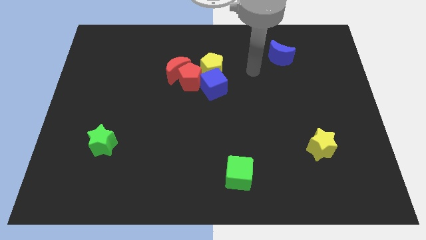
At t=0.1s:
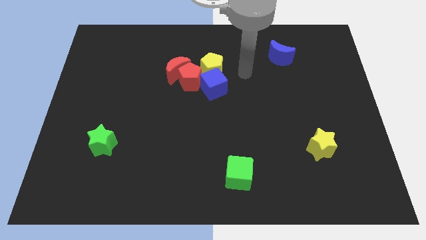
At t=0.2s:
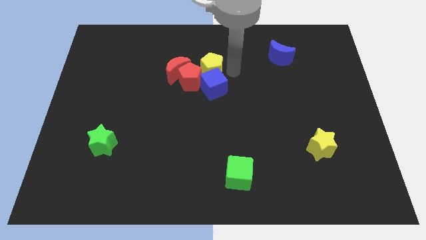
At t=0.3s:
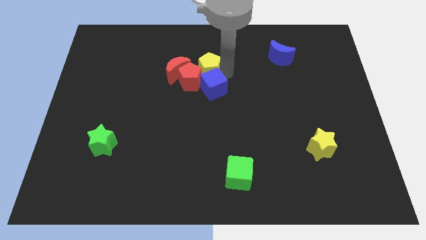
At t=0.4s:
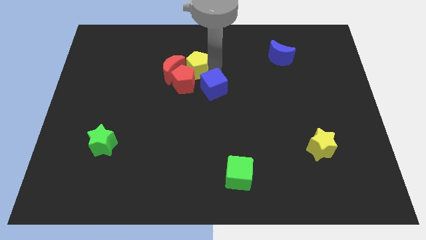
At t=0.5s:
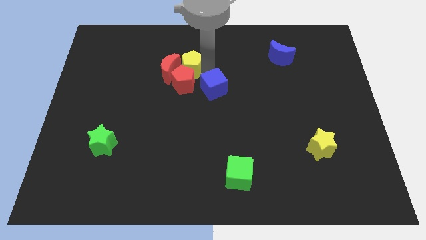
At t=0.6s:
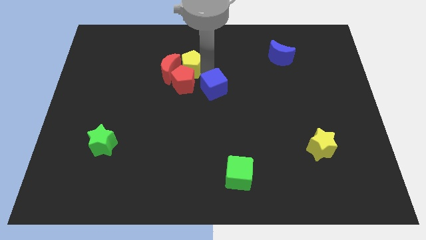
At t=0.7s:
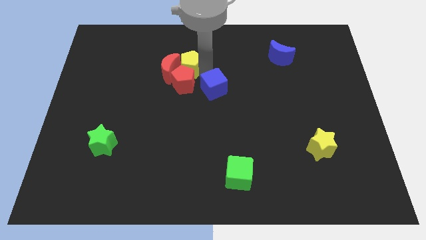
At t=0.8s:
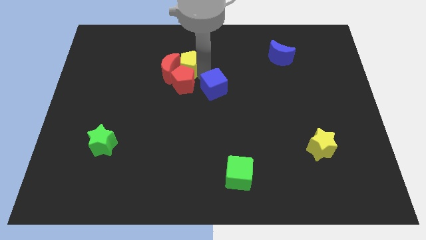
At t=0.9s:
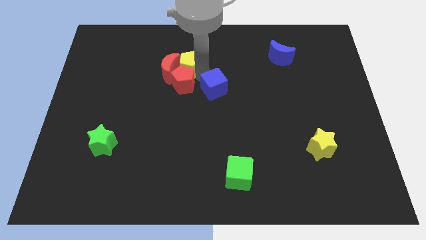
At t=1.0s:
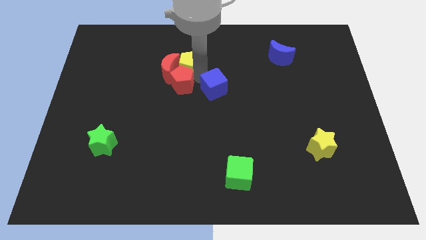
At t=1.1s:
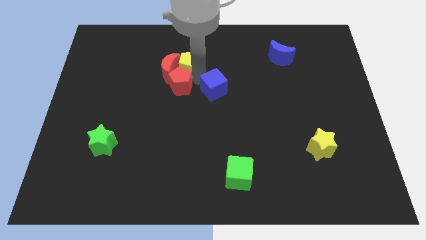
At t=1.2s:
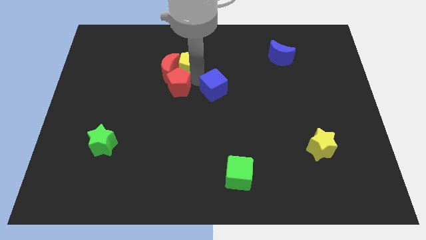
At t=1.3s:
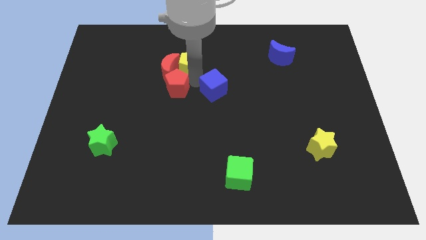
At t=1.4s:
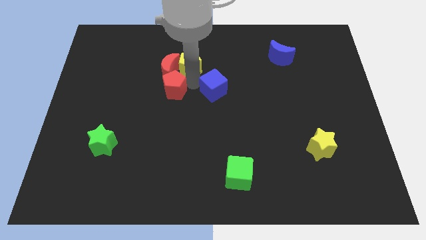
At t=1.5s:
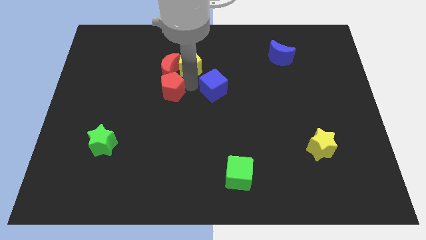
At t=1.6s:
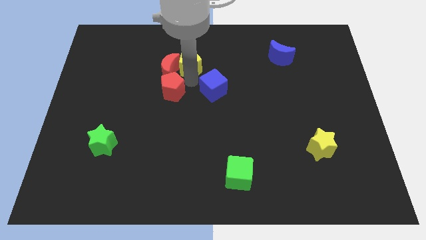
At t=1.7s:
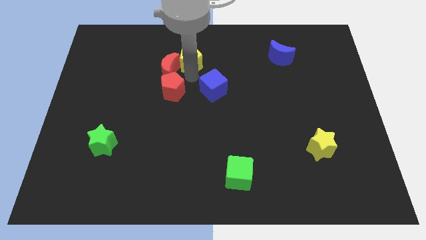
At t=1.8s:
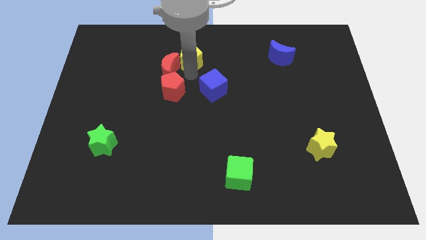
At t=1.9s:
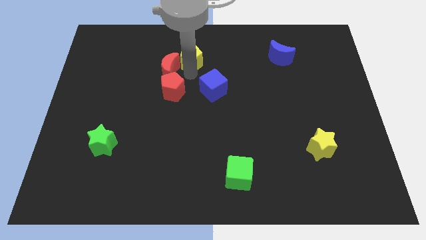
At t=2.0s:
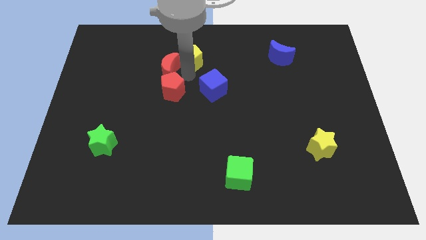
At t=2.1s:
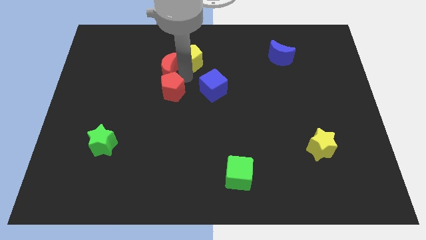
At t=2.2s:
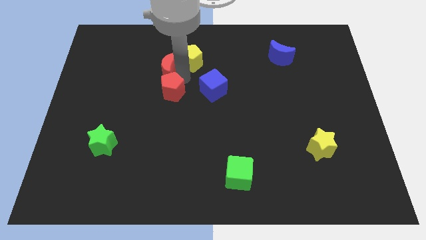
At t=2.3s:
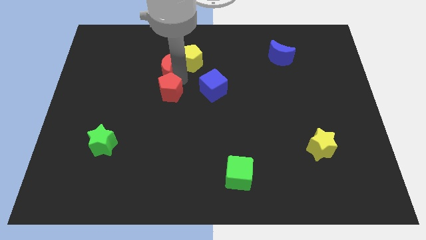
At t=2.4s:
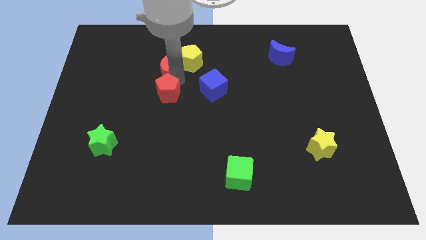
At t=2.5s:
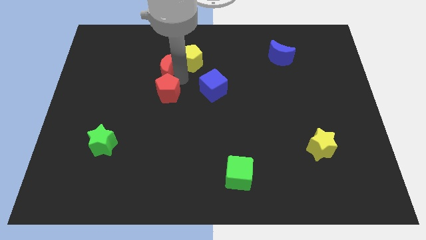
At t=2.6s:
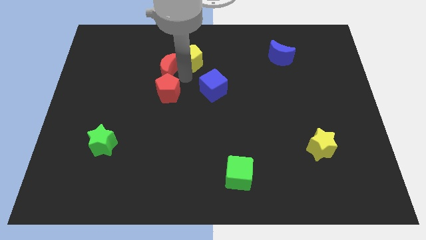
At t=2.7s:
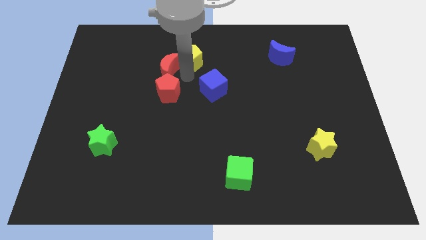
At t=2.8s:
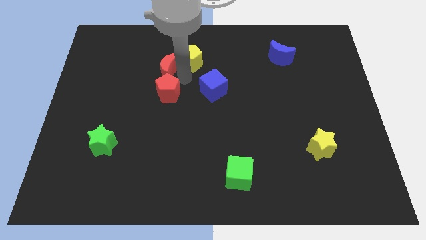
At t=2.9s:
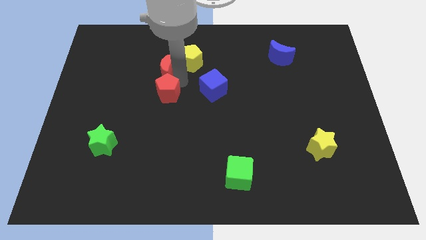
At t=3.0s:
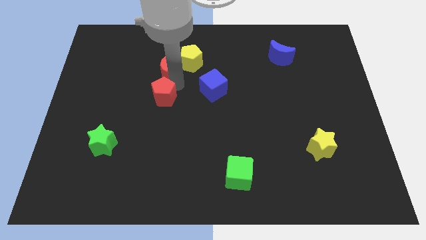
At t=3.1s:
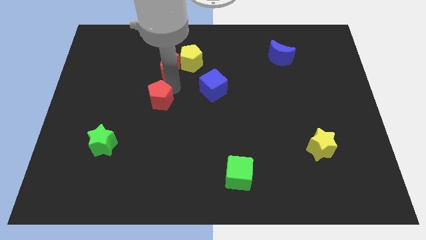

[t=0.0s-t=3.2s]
separate the red pentagon from the red moon, blue cube, and yellow pentagon

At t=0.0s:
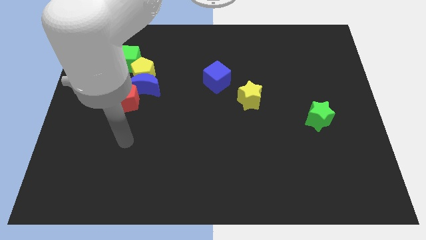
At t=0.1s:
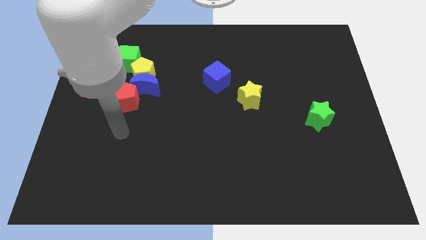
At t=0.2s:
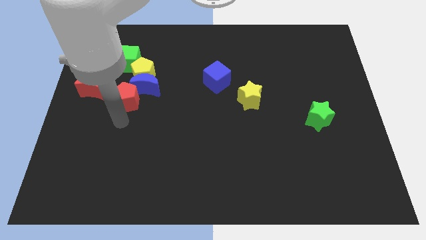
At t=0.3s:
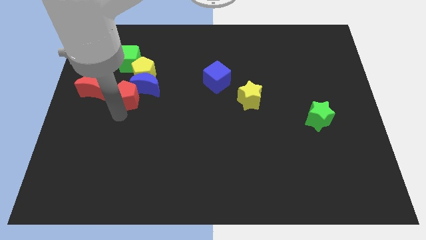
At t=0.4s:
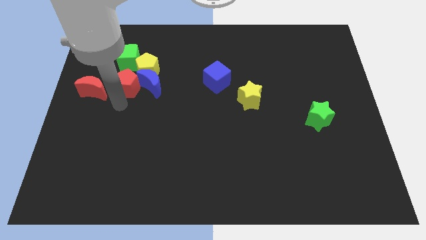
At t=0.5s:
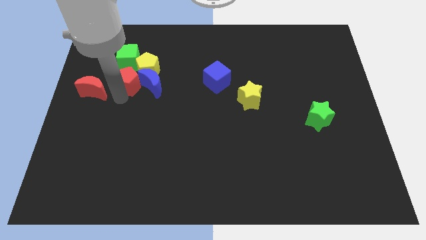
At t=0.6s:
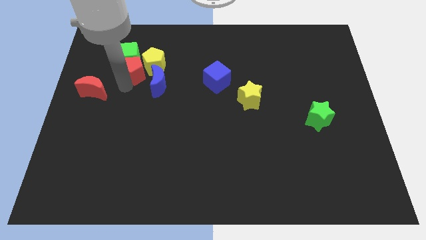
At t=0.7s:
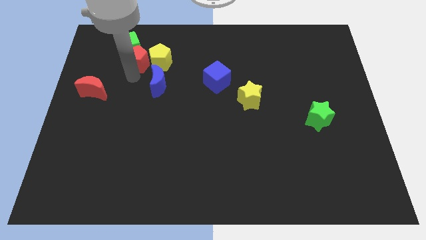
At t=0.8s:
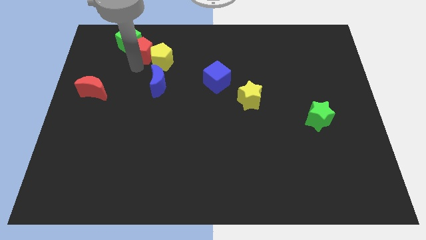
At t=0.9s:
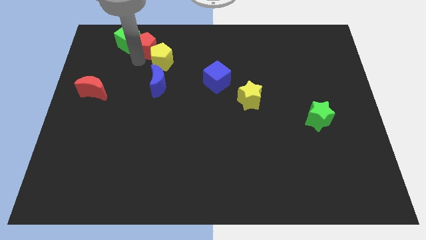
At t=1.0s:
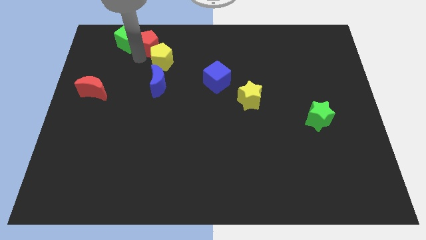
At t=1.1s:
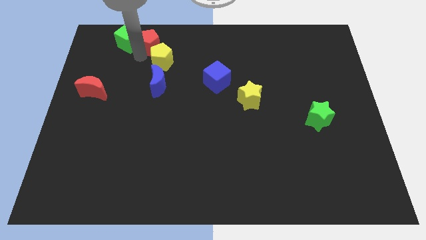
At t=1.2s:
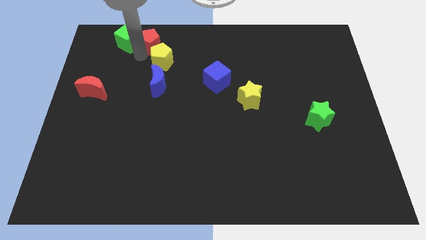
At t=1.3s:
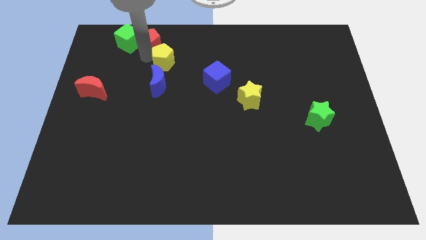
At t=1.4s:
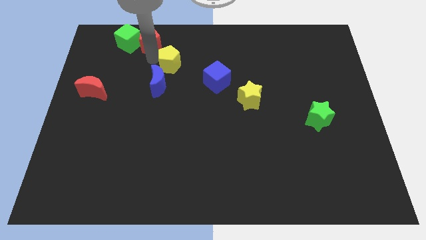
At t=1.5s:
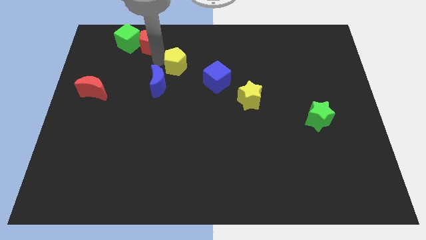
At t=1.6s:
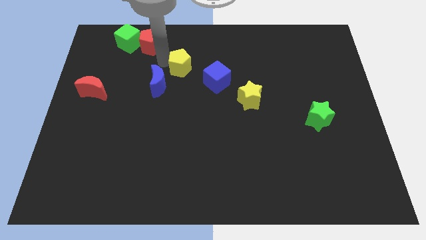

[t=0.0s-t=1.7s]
separate the yellow pentagon from the blue moon, green cube, and red pentagon

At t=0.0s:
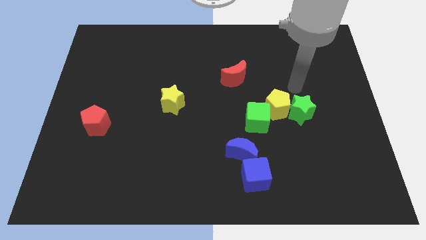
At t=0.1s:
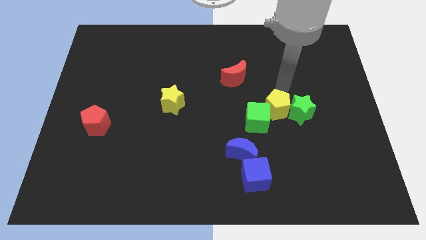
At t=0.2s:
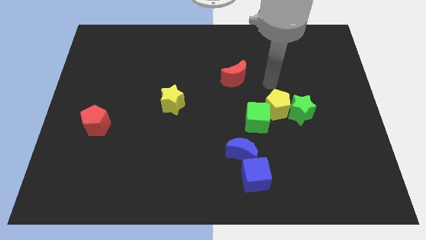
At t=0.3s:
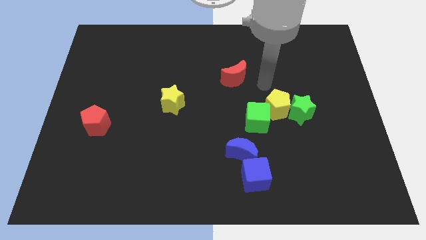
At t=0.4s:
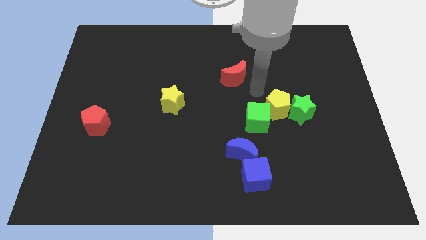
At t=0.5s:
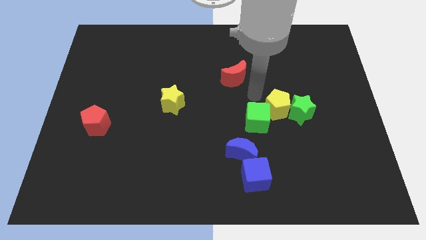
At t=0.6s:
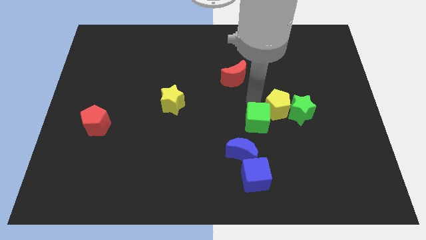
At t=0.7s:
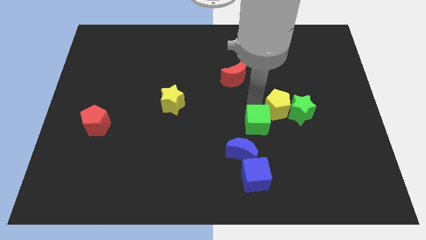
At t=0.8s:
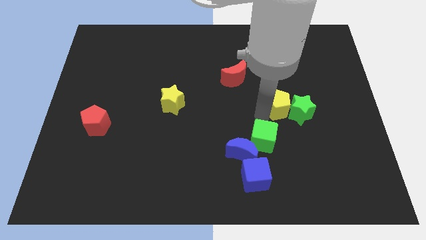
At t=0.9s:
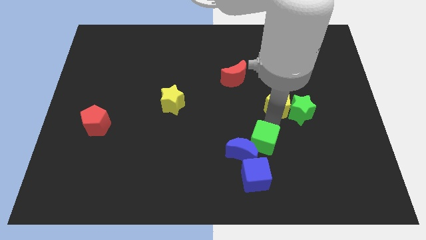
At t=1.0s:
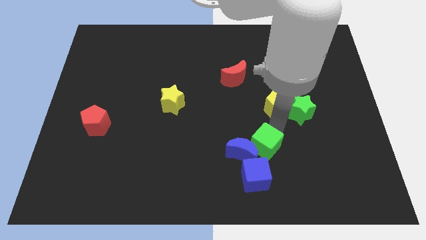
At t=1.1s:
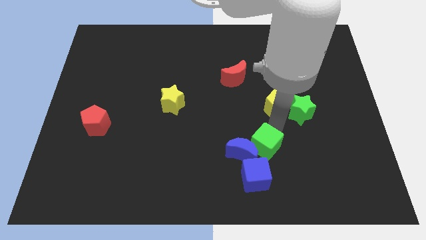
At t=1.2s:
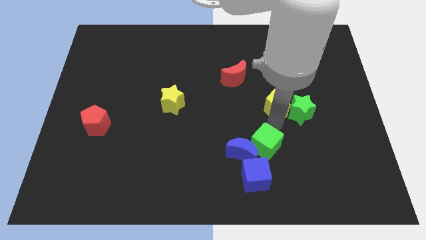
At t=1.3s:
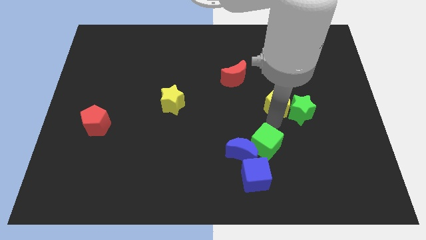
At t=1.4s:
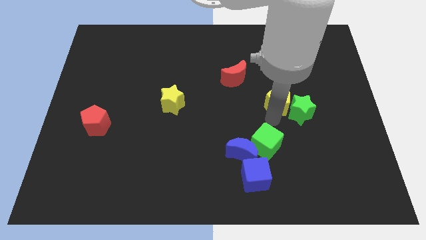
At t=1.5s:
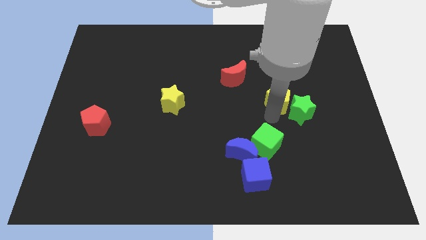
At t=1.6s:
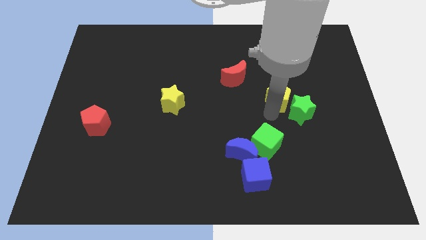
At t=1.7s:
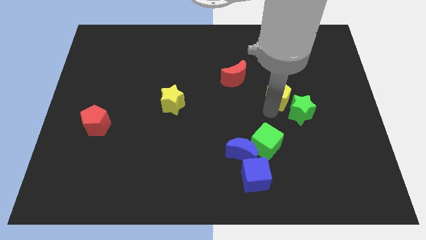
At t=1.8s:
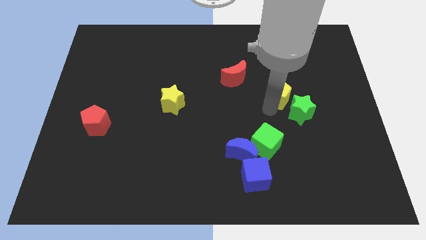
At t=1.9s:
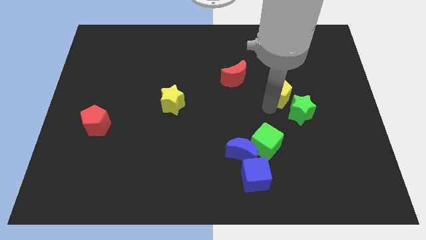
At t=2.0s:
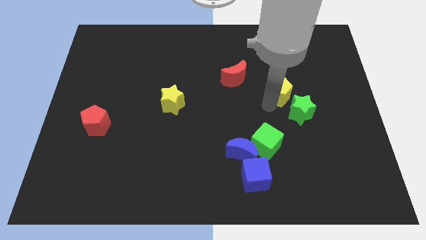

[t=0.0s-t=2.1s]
separate the yellow pentagon from the green star and green cube

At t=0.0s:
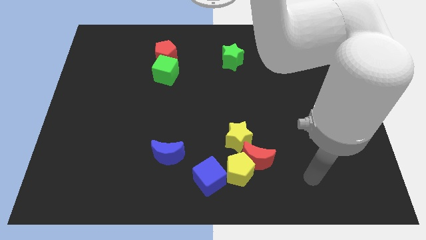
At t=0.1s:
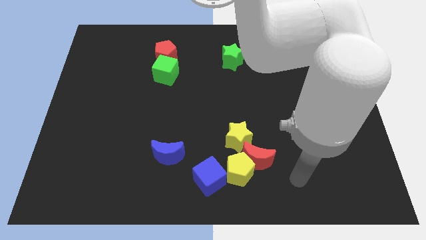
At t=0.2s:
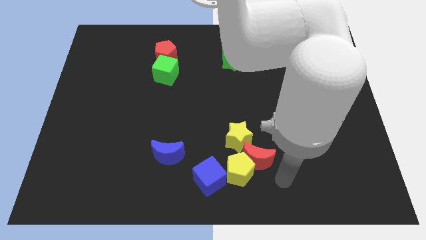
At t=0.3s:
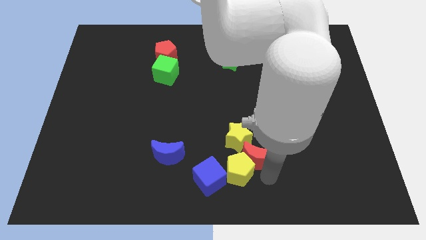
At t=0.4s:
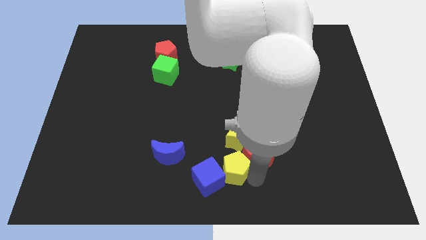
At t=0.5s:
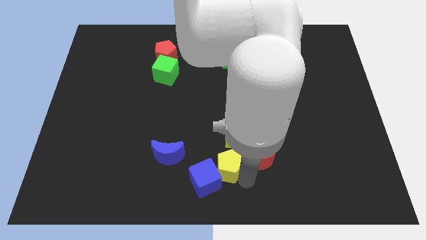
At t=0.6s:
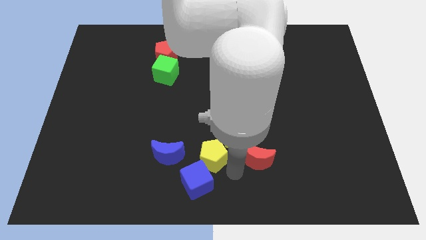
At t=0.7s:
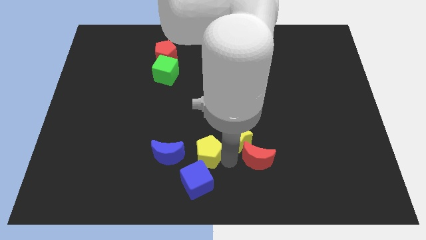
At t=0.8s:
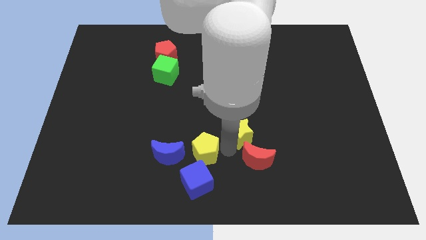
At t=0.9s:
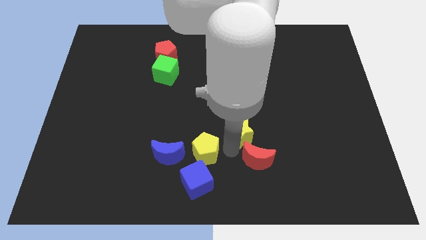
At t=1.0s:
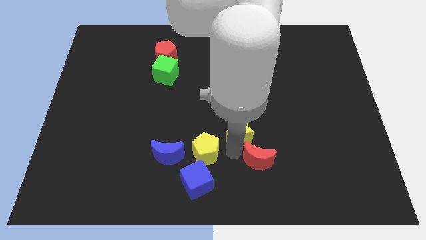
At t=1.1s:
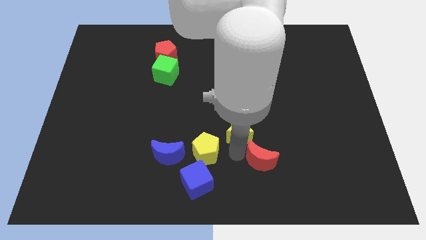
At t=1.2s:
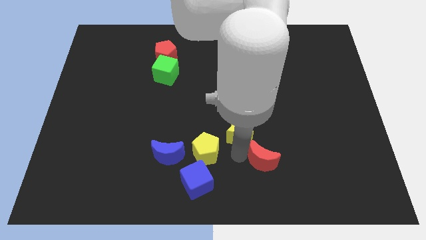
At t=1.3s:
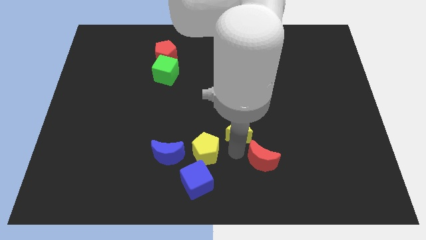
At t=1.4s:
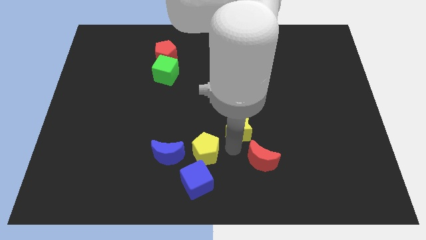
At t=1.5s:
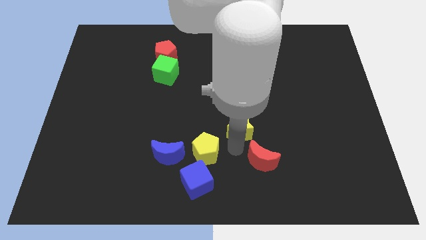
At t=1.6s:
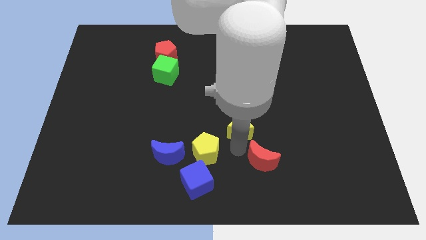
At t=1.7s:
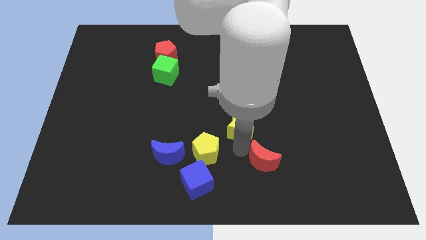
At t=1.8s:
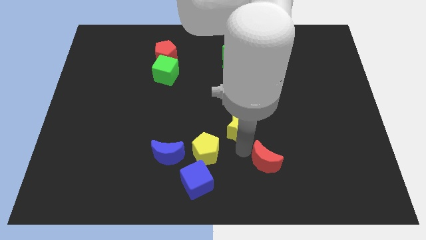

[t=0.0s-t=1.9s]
pull the red moon apart from the yellow pentagon and yellow star

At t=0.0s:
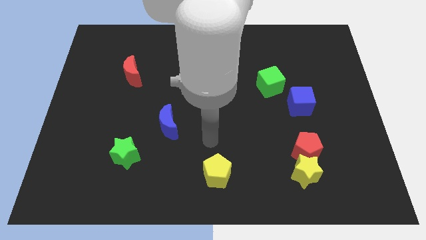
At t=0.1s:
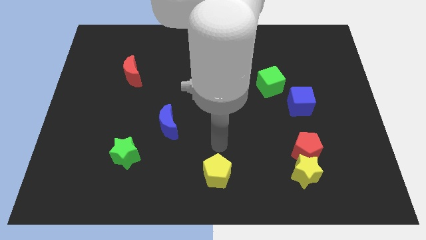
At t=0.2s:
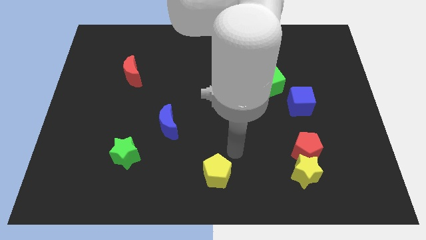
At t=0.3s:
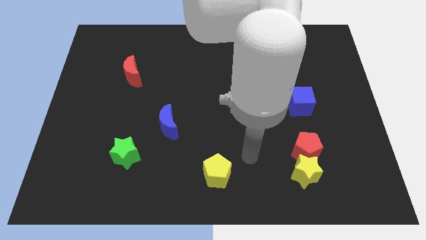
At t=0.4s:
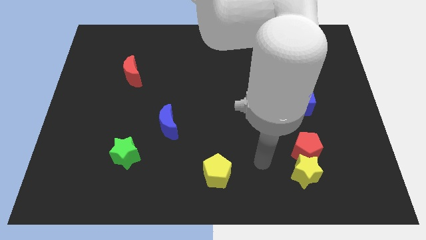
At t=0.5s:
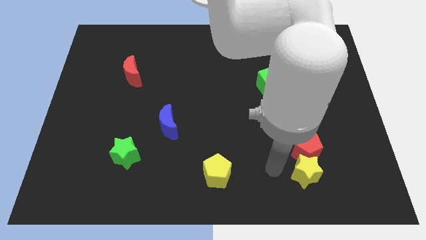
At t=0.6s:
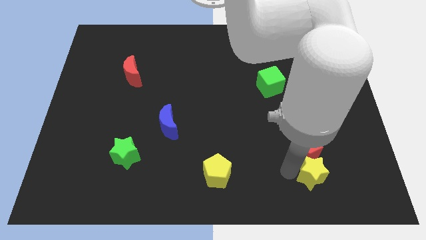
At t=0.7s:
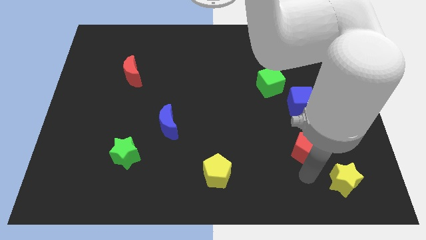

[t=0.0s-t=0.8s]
pull the red pentagon apart from the yellow star
